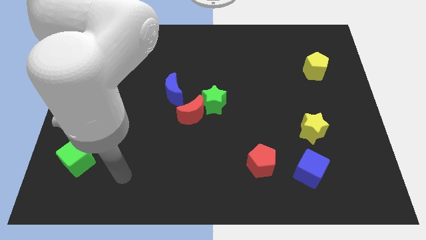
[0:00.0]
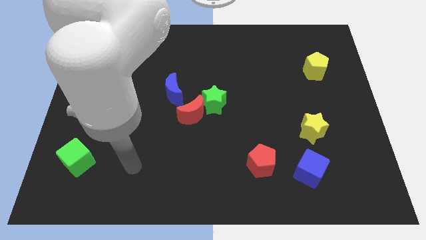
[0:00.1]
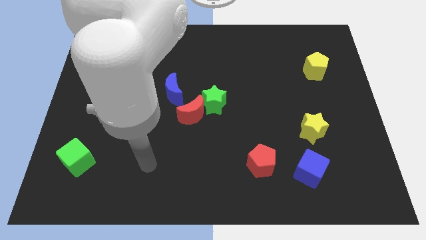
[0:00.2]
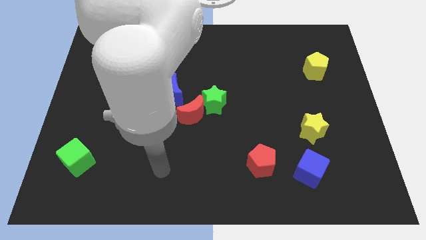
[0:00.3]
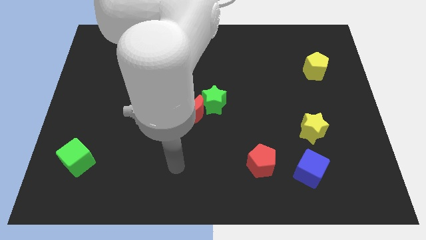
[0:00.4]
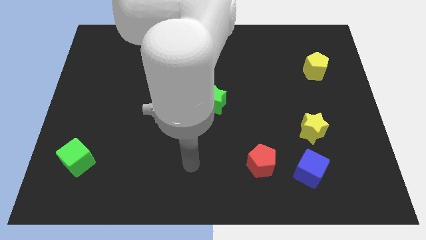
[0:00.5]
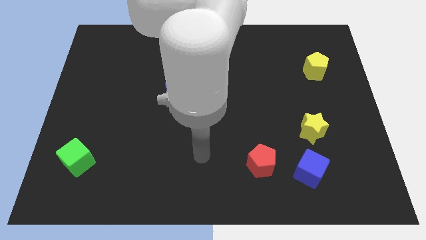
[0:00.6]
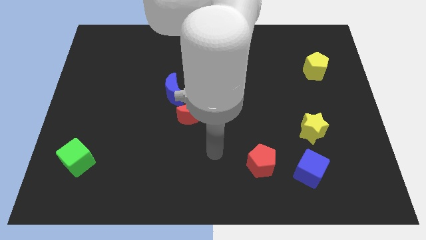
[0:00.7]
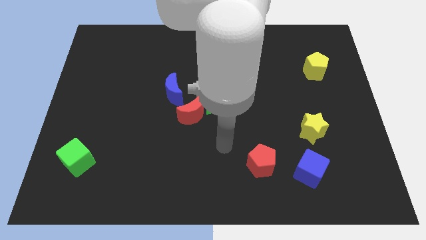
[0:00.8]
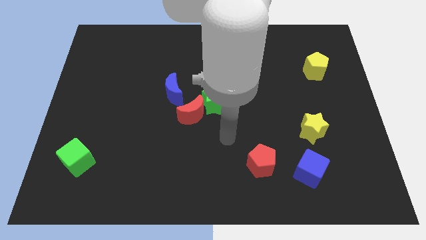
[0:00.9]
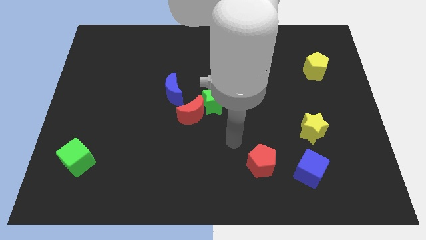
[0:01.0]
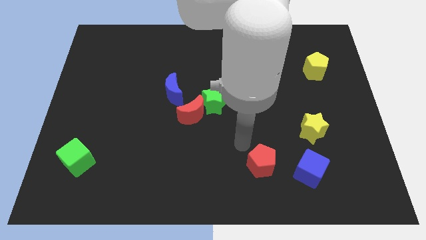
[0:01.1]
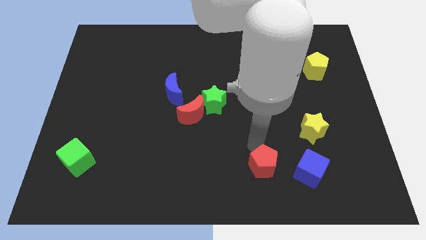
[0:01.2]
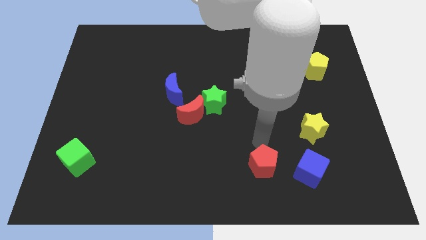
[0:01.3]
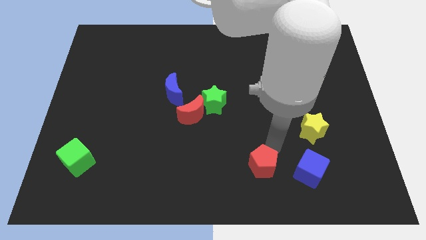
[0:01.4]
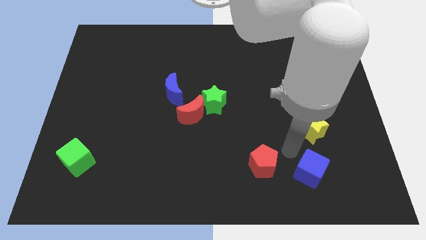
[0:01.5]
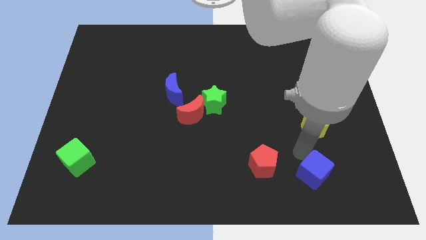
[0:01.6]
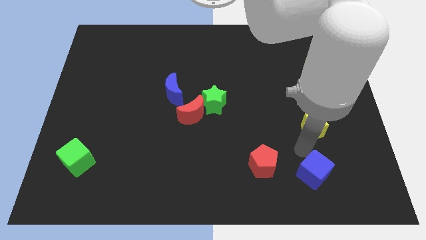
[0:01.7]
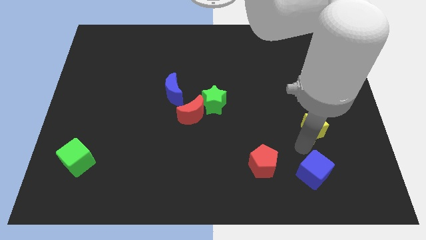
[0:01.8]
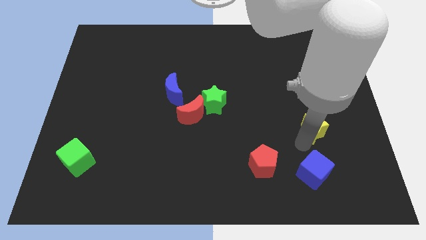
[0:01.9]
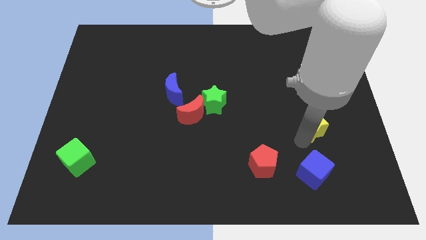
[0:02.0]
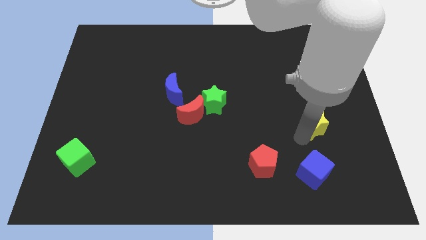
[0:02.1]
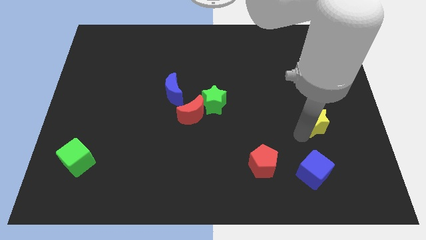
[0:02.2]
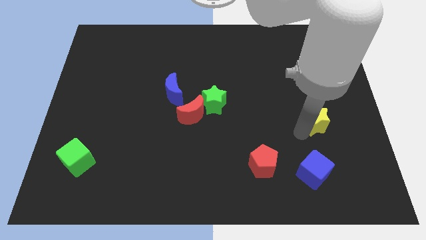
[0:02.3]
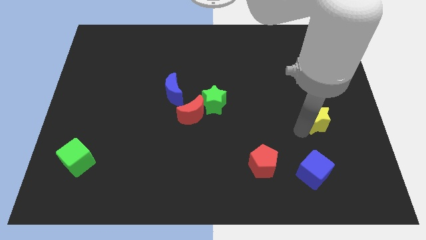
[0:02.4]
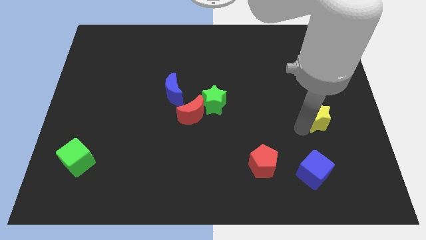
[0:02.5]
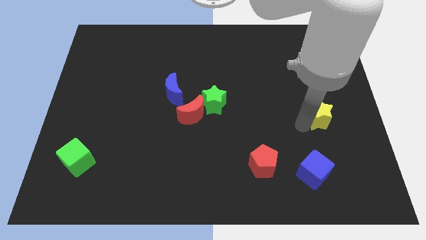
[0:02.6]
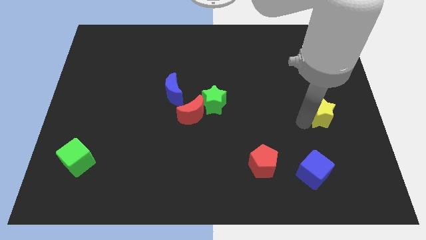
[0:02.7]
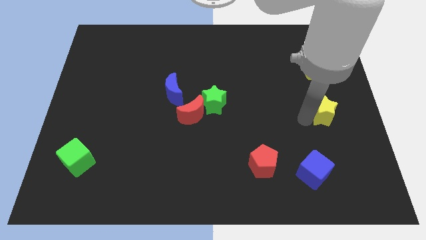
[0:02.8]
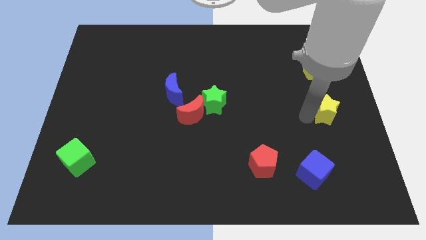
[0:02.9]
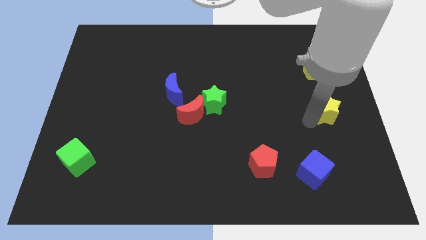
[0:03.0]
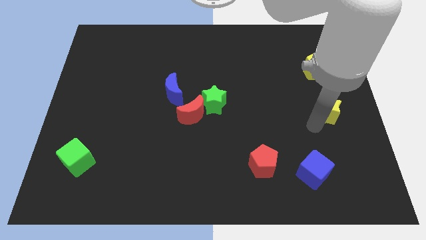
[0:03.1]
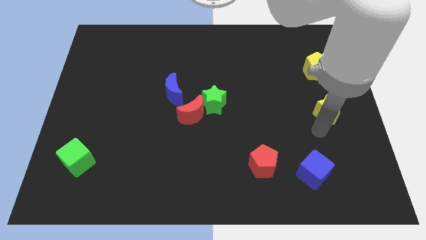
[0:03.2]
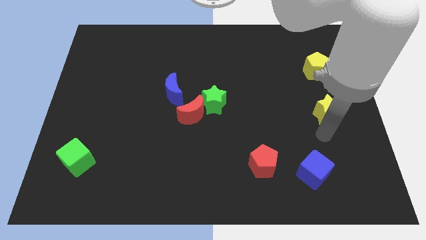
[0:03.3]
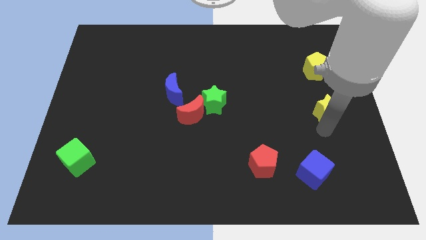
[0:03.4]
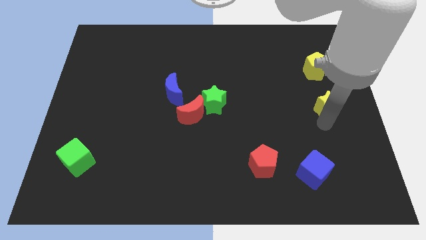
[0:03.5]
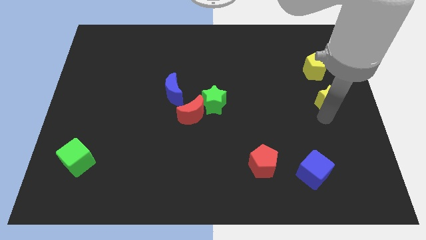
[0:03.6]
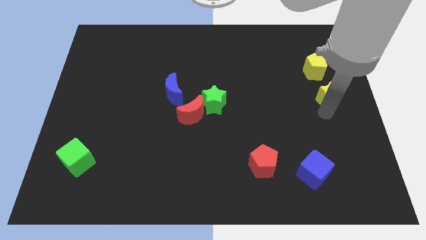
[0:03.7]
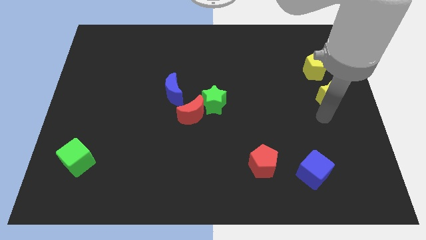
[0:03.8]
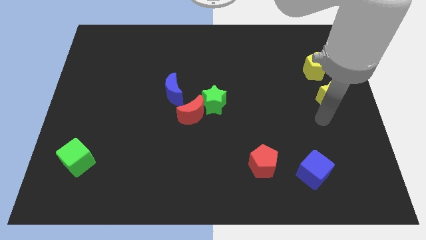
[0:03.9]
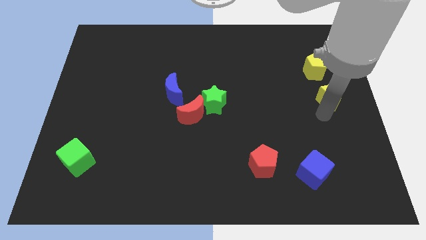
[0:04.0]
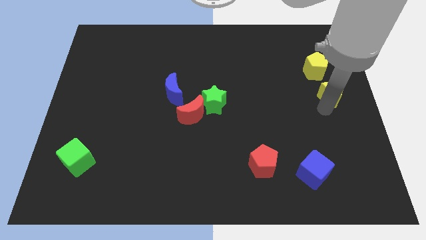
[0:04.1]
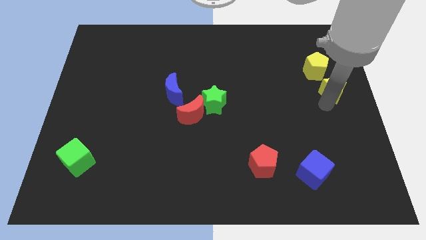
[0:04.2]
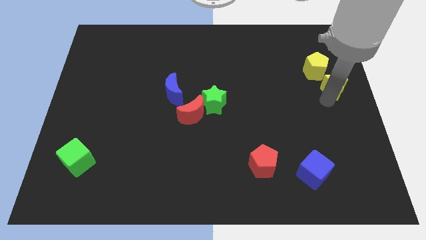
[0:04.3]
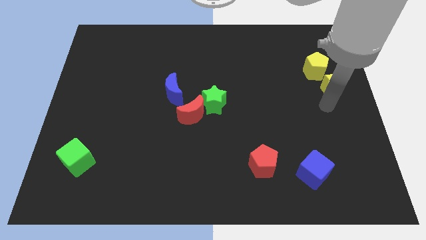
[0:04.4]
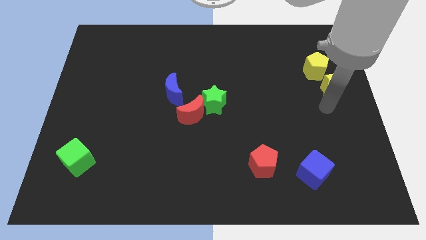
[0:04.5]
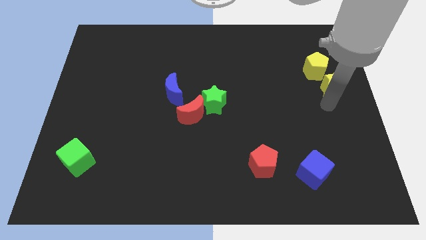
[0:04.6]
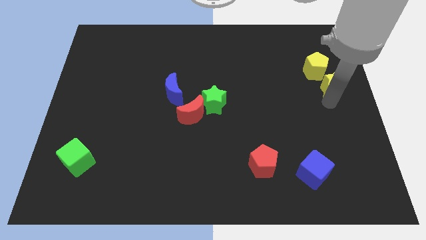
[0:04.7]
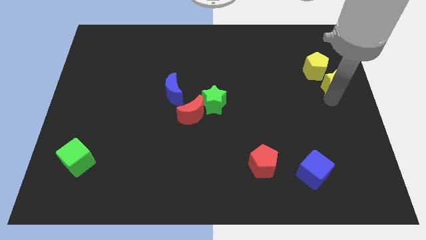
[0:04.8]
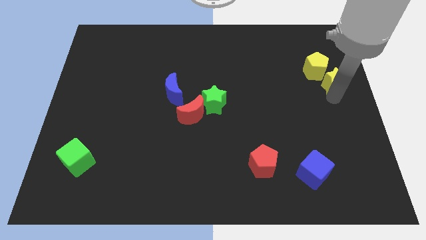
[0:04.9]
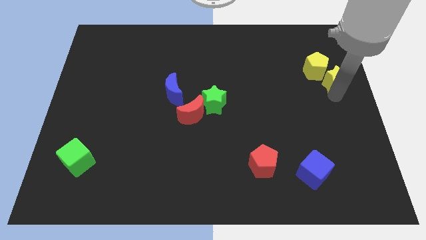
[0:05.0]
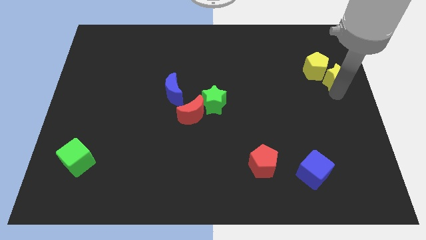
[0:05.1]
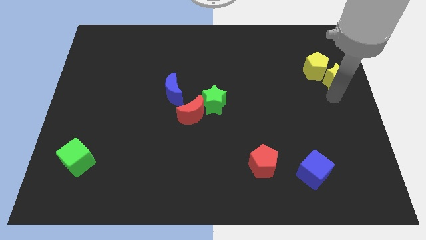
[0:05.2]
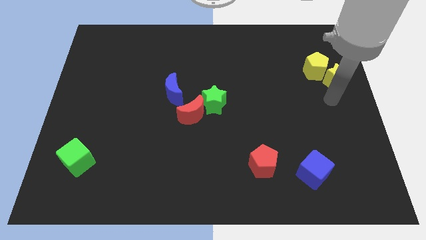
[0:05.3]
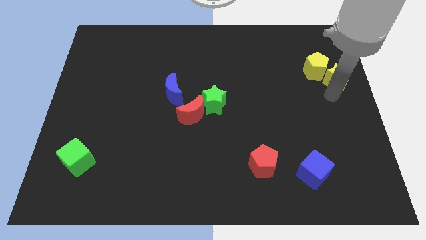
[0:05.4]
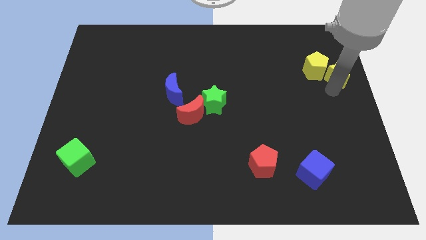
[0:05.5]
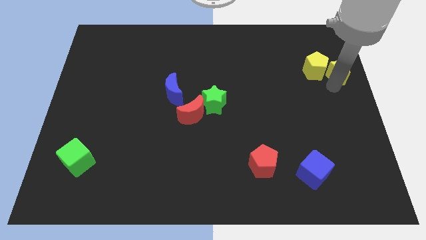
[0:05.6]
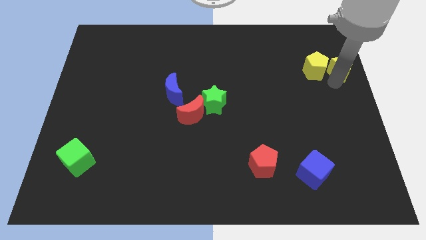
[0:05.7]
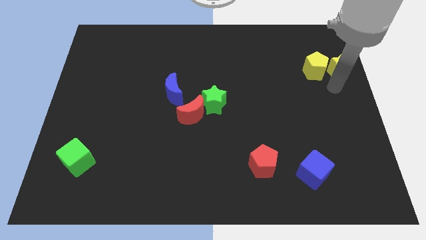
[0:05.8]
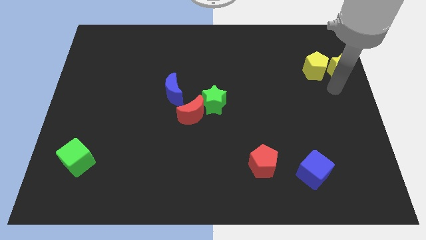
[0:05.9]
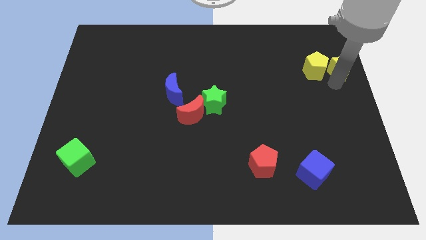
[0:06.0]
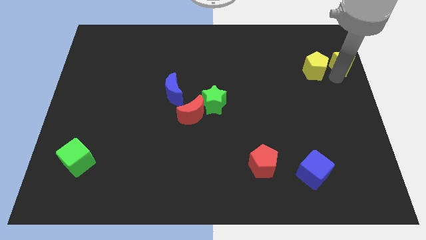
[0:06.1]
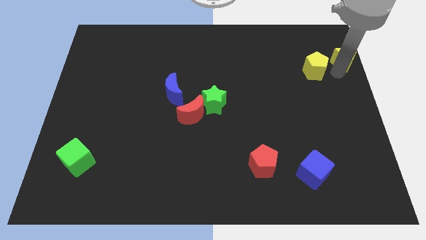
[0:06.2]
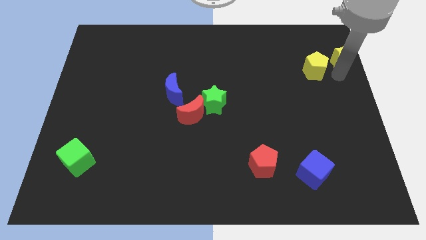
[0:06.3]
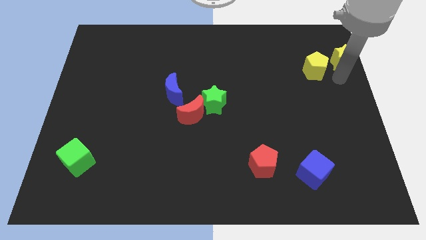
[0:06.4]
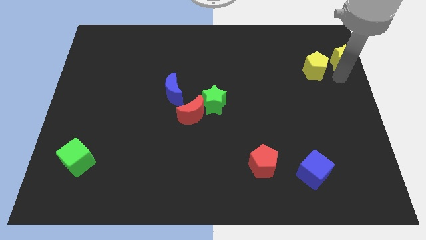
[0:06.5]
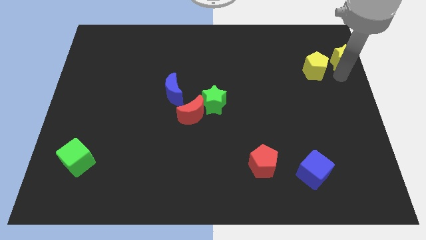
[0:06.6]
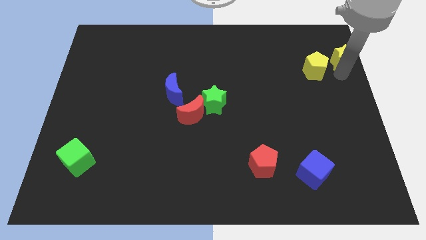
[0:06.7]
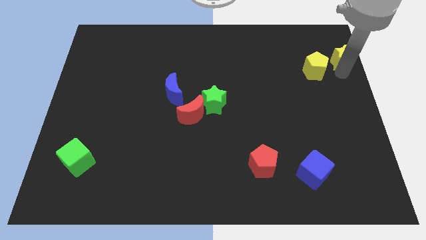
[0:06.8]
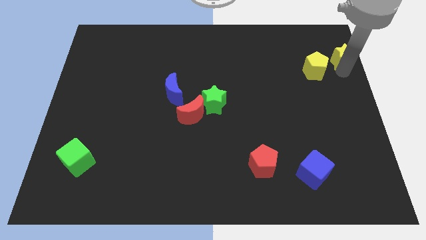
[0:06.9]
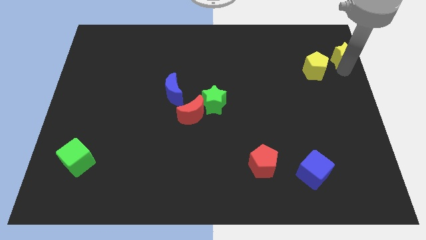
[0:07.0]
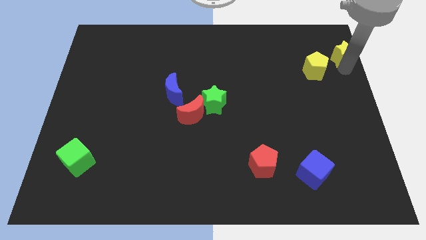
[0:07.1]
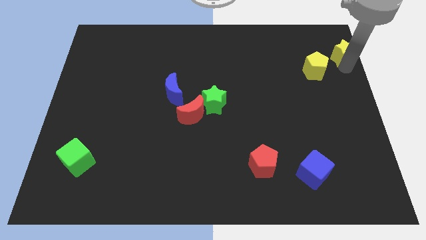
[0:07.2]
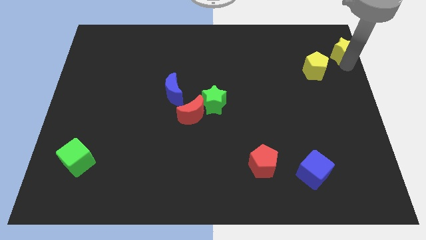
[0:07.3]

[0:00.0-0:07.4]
slide the yellow star to the top right
